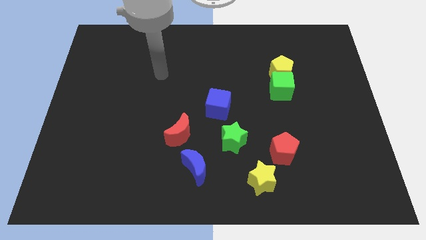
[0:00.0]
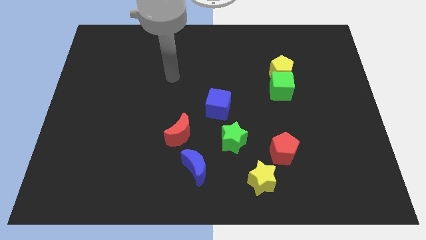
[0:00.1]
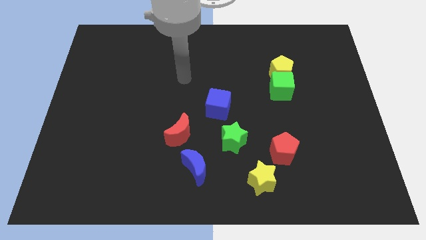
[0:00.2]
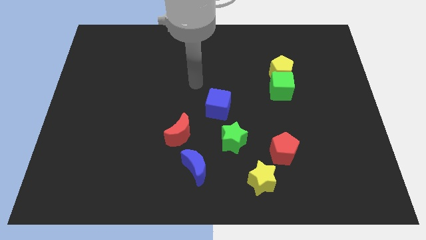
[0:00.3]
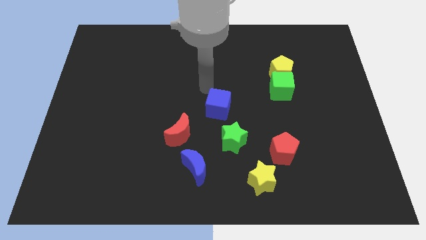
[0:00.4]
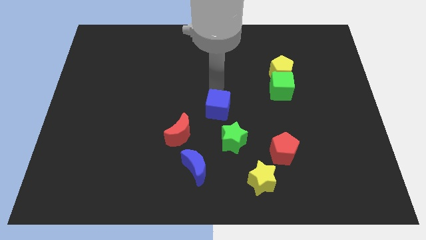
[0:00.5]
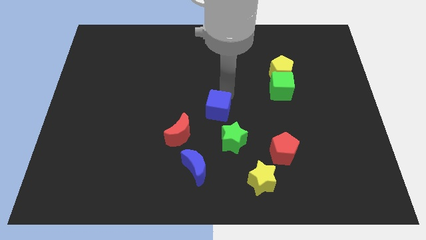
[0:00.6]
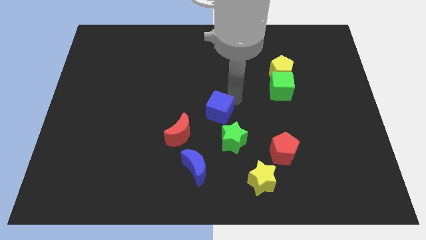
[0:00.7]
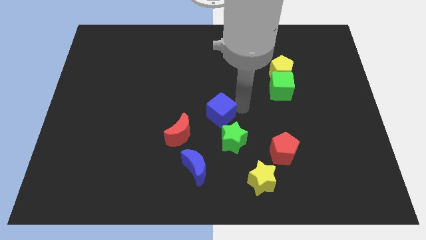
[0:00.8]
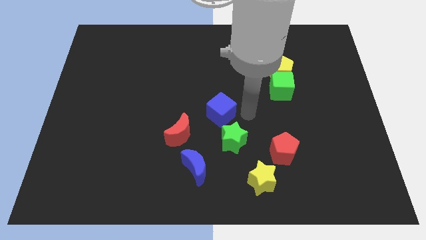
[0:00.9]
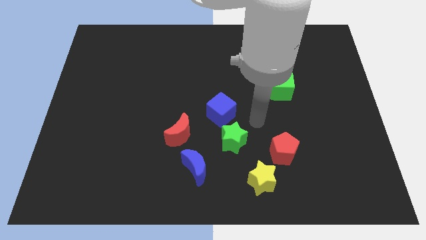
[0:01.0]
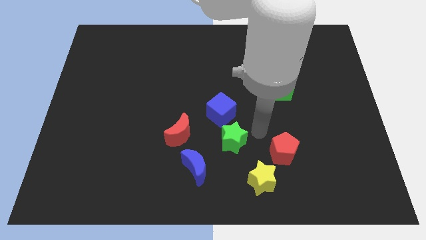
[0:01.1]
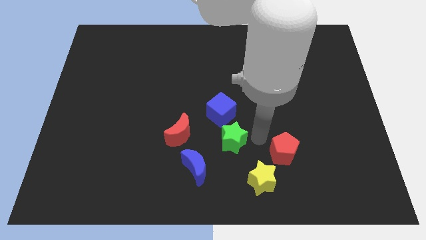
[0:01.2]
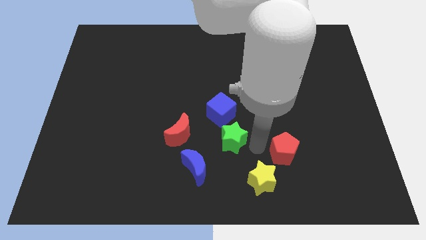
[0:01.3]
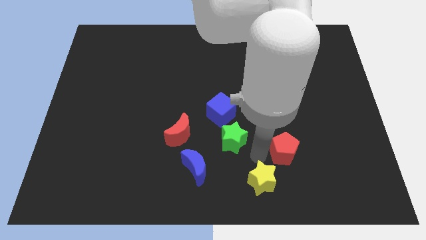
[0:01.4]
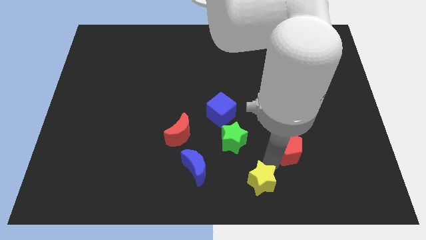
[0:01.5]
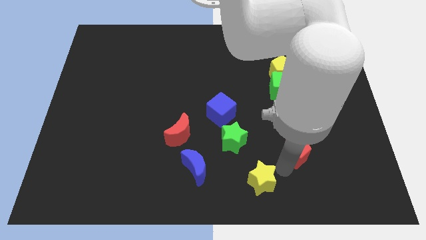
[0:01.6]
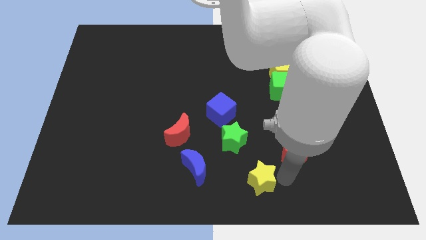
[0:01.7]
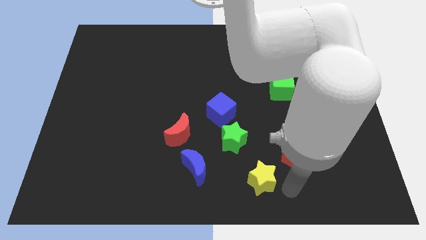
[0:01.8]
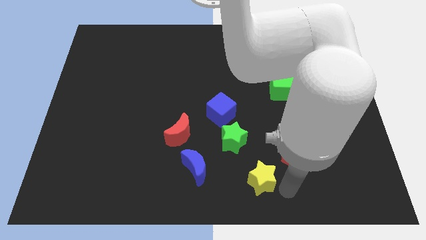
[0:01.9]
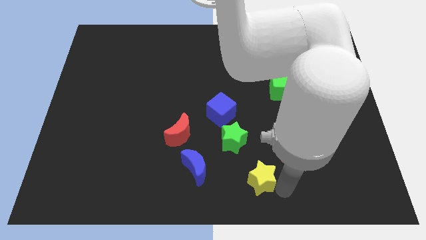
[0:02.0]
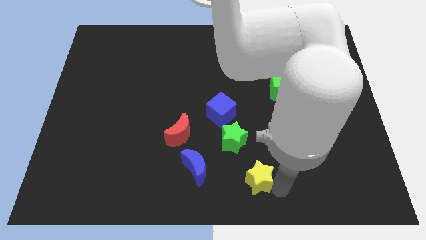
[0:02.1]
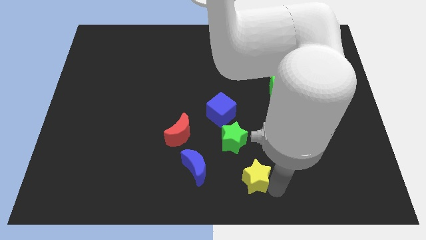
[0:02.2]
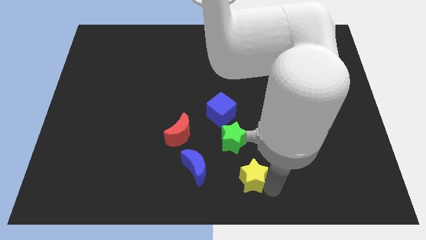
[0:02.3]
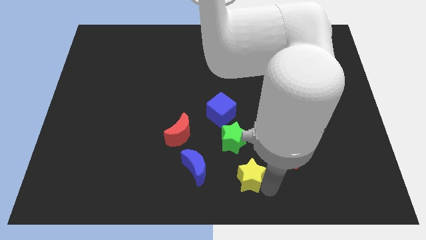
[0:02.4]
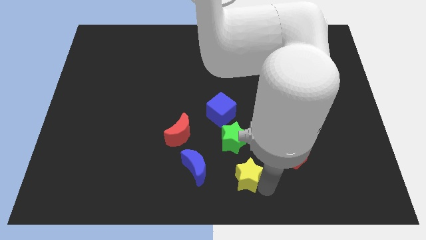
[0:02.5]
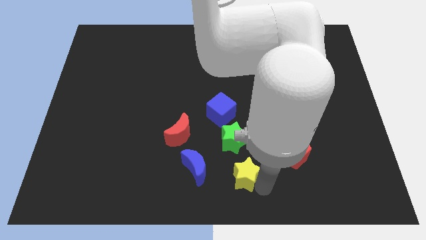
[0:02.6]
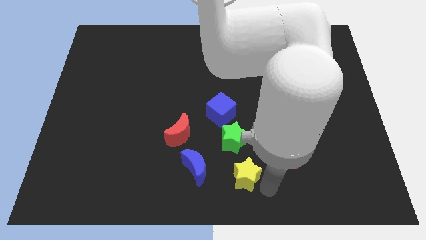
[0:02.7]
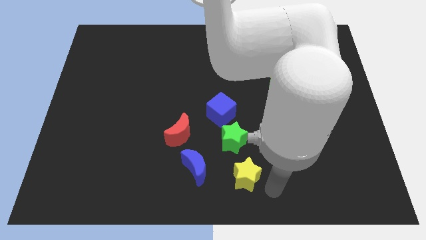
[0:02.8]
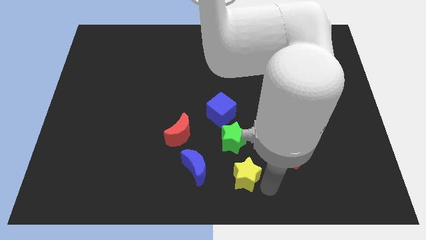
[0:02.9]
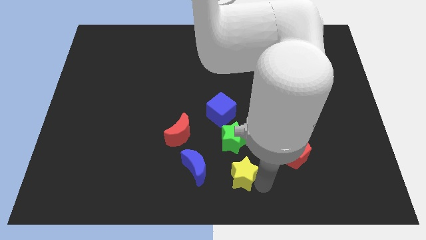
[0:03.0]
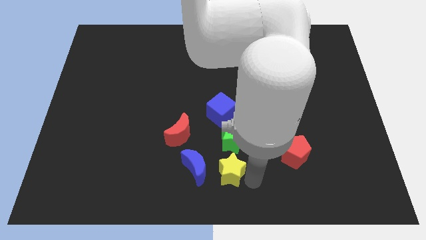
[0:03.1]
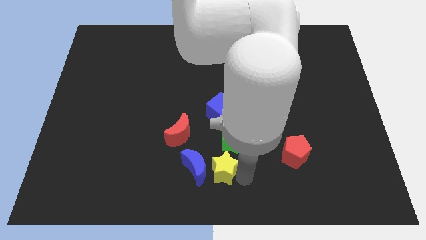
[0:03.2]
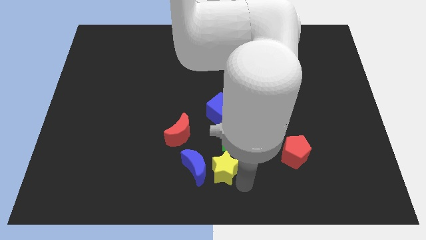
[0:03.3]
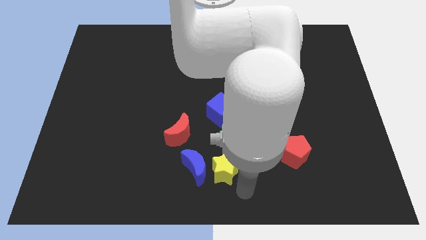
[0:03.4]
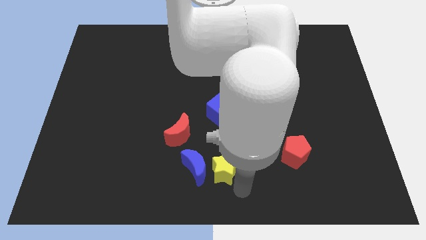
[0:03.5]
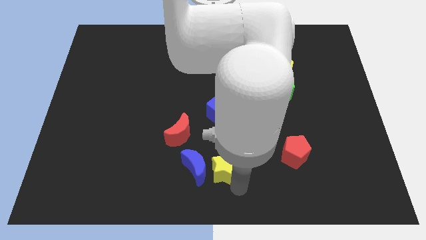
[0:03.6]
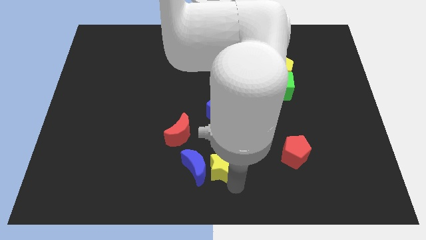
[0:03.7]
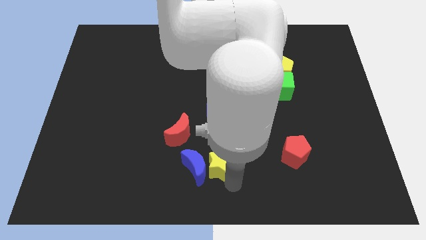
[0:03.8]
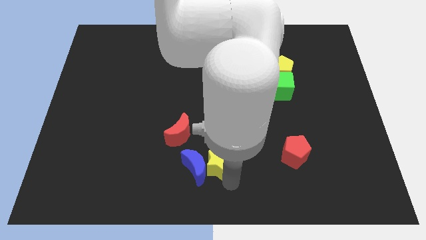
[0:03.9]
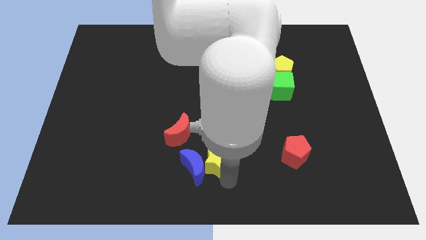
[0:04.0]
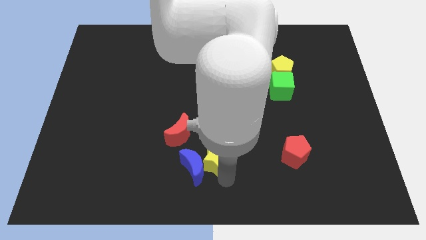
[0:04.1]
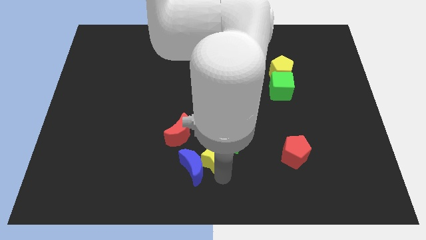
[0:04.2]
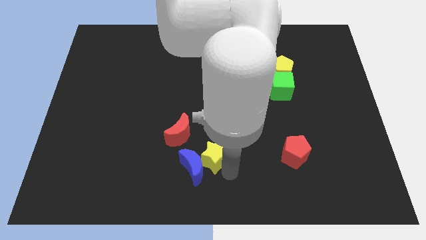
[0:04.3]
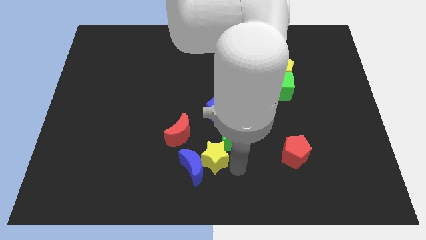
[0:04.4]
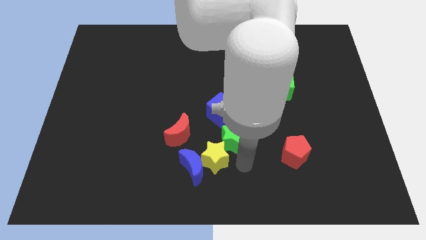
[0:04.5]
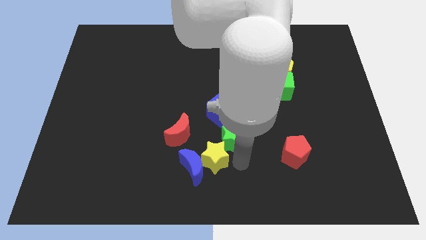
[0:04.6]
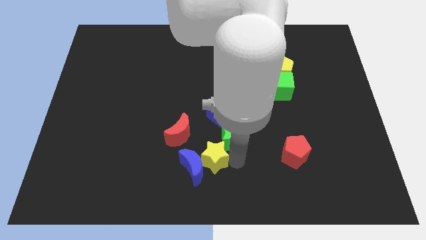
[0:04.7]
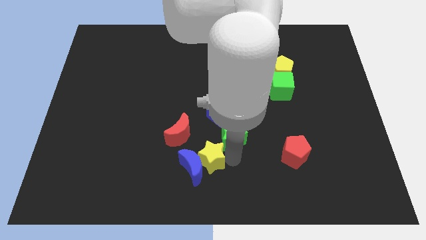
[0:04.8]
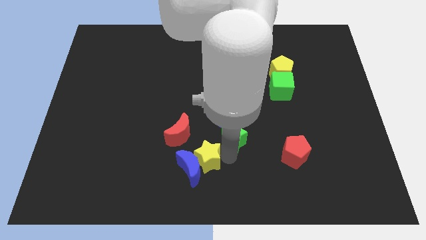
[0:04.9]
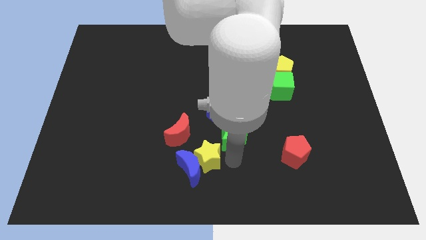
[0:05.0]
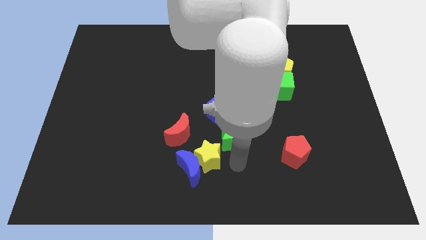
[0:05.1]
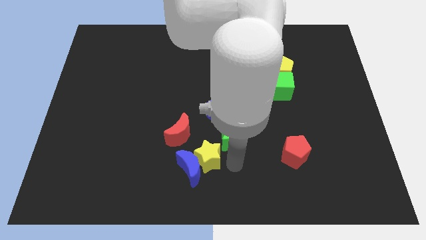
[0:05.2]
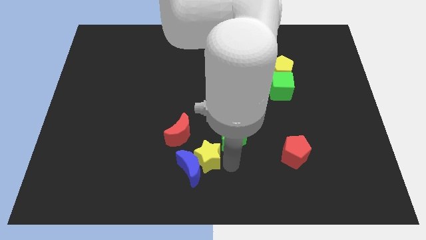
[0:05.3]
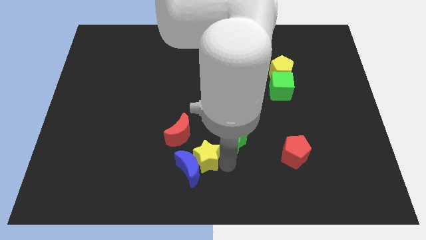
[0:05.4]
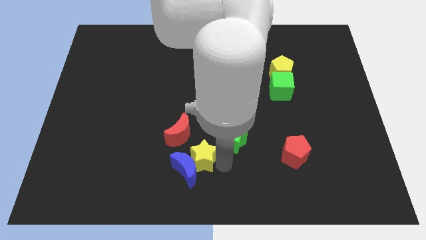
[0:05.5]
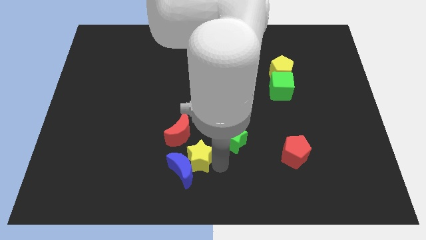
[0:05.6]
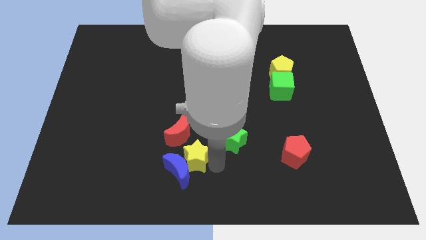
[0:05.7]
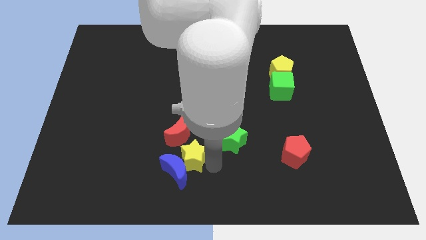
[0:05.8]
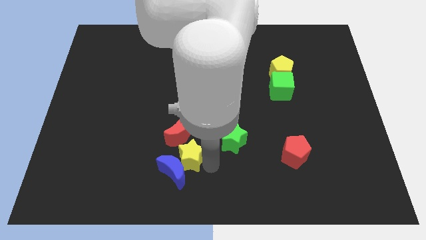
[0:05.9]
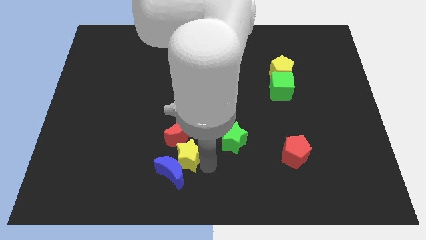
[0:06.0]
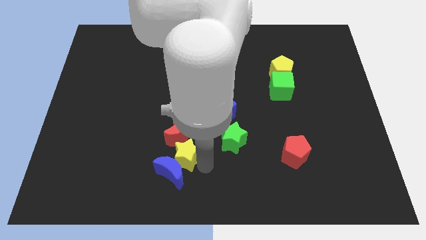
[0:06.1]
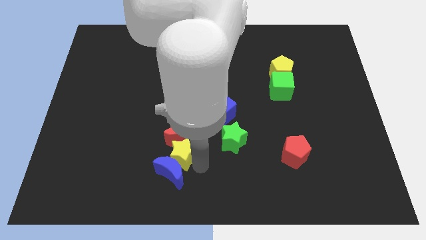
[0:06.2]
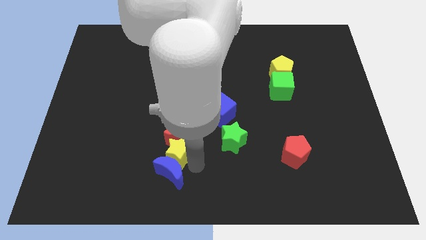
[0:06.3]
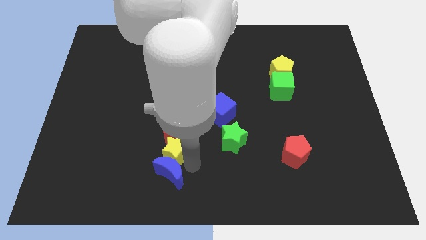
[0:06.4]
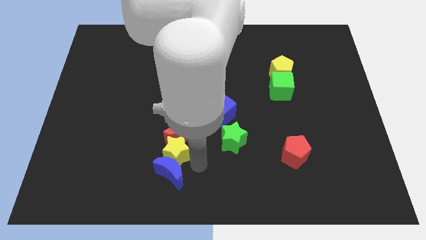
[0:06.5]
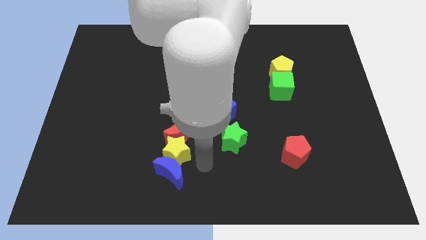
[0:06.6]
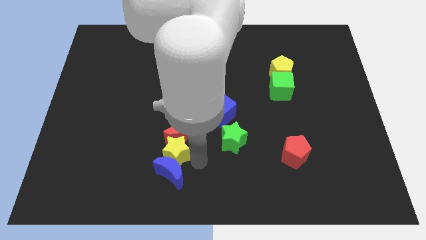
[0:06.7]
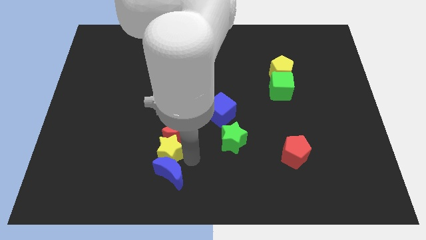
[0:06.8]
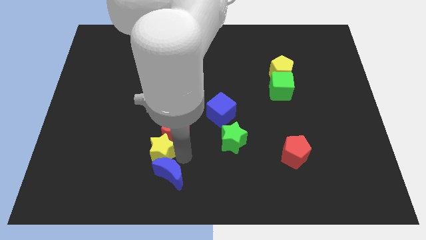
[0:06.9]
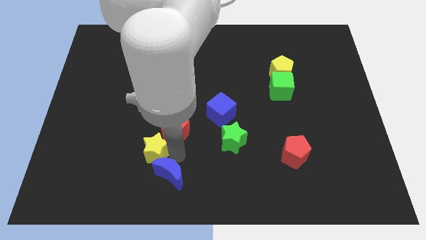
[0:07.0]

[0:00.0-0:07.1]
put the yellow star just left of the red moon

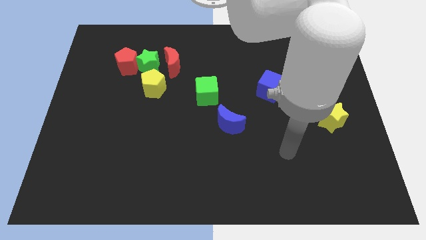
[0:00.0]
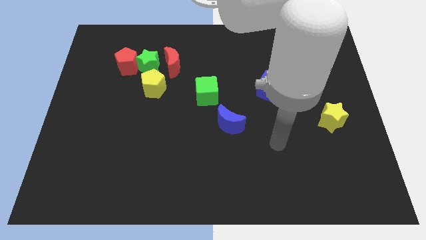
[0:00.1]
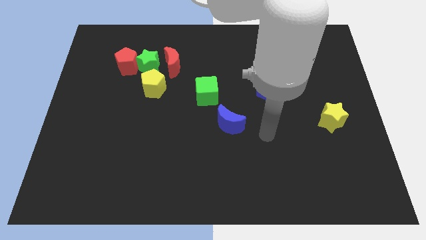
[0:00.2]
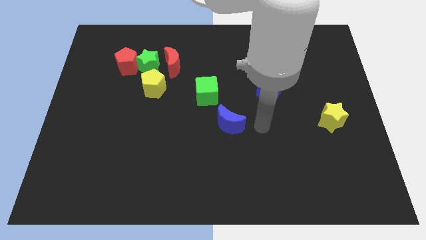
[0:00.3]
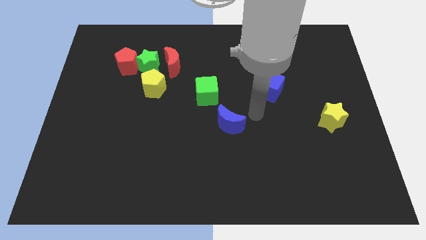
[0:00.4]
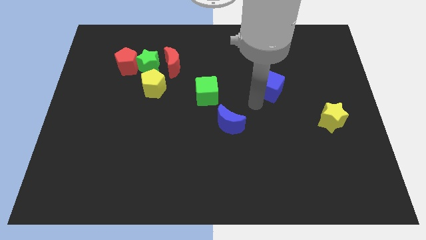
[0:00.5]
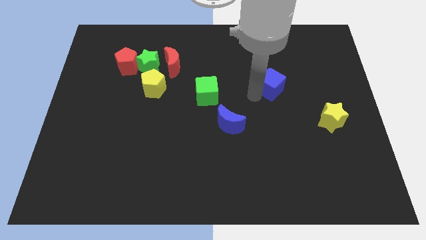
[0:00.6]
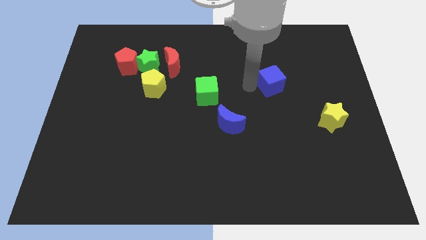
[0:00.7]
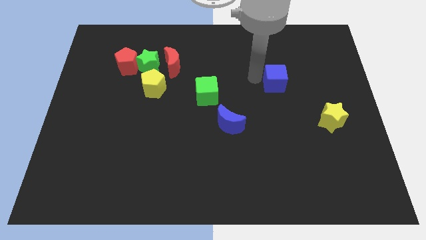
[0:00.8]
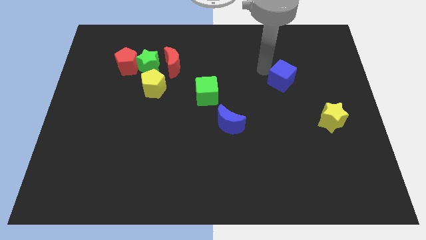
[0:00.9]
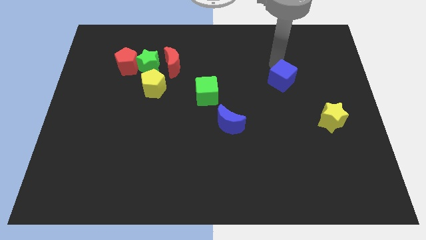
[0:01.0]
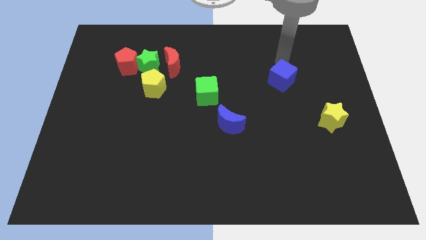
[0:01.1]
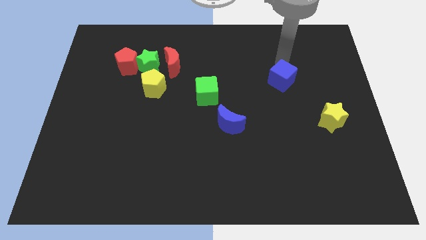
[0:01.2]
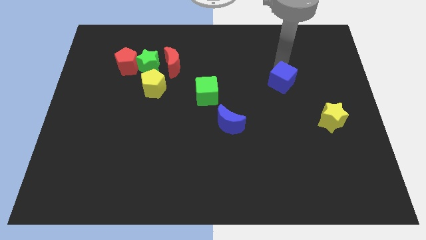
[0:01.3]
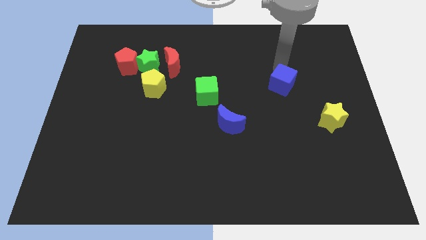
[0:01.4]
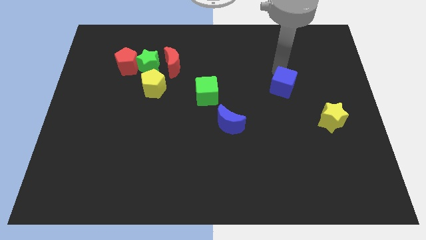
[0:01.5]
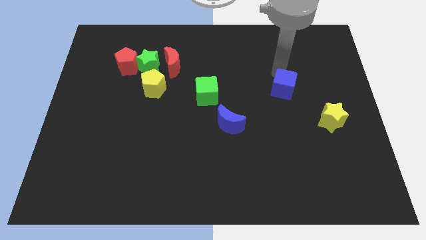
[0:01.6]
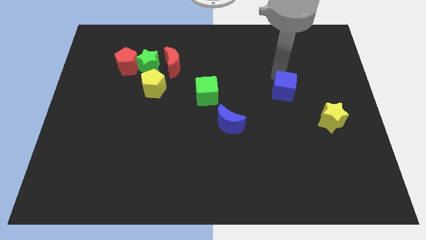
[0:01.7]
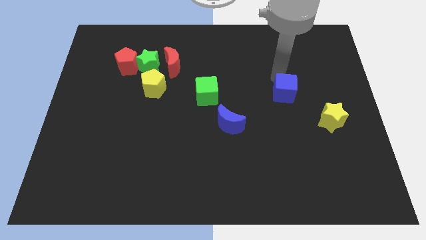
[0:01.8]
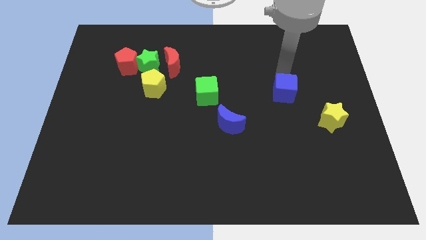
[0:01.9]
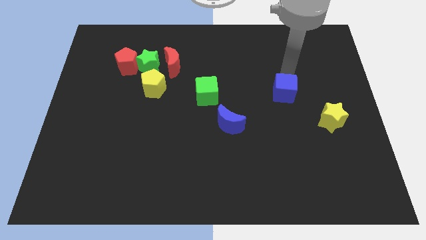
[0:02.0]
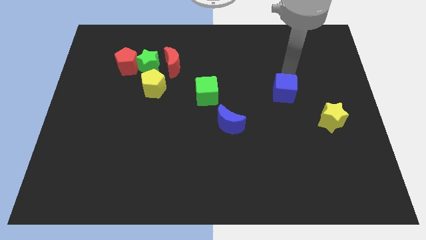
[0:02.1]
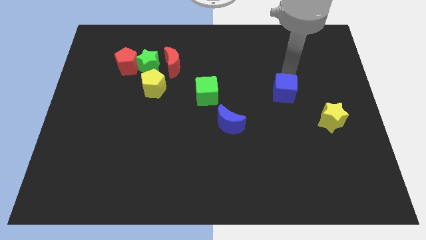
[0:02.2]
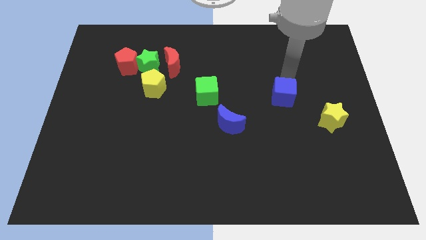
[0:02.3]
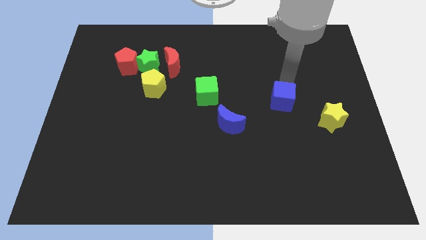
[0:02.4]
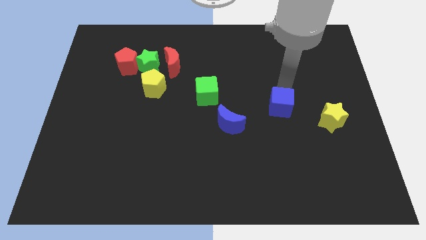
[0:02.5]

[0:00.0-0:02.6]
slide the blue cube left of the yellow star
